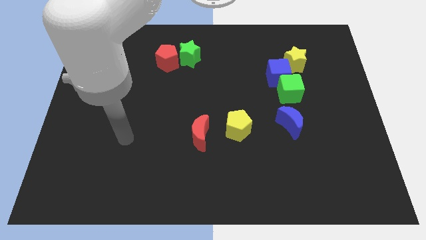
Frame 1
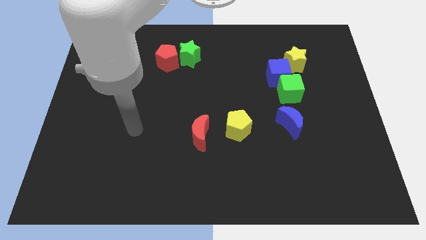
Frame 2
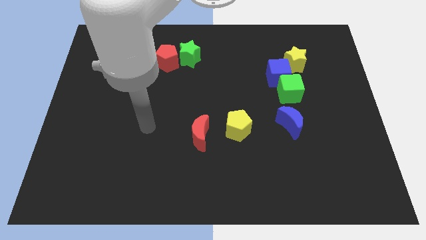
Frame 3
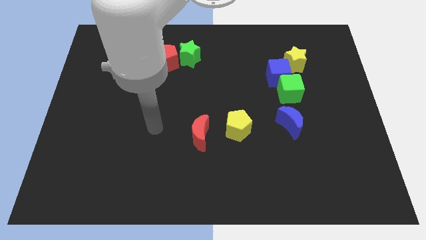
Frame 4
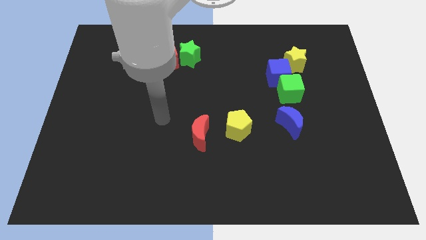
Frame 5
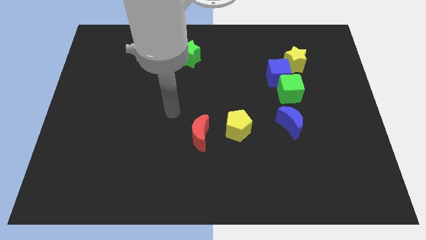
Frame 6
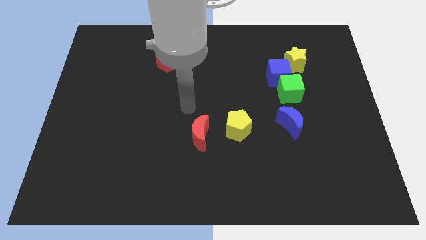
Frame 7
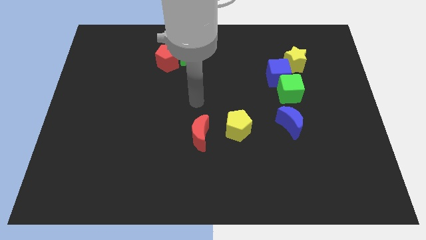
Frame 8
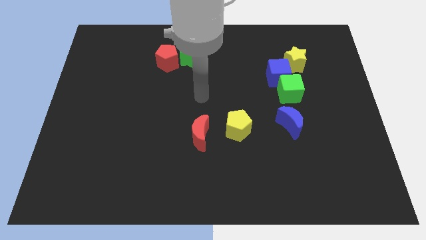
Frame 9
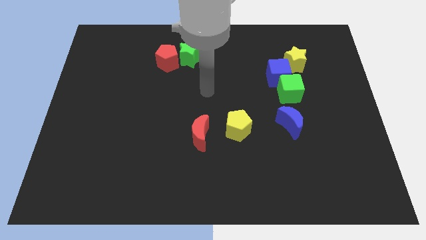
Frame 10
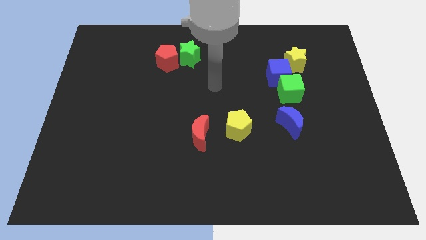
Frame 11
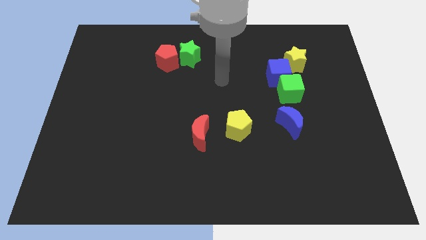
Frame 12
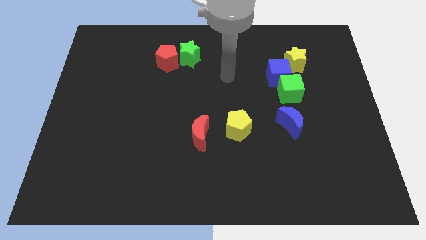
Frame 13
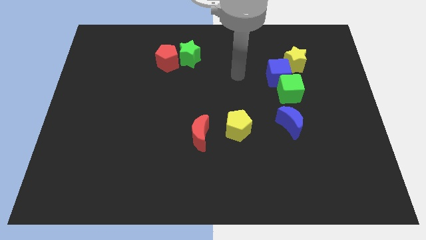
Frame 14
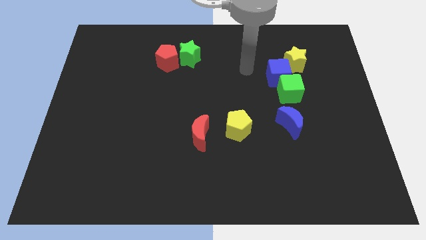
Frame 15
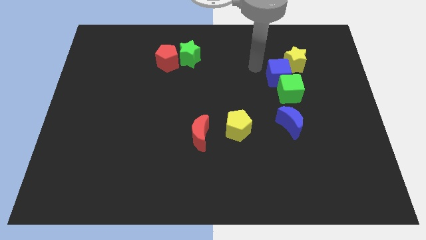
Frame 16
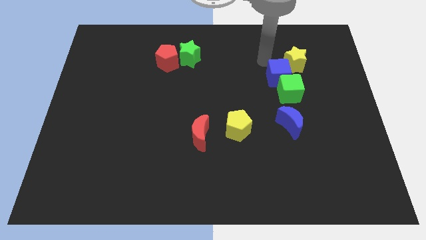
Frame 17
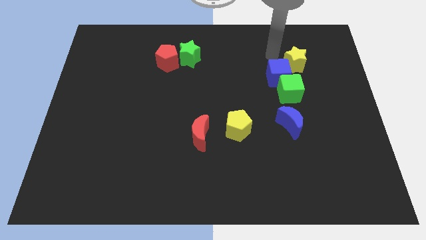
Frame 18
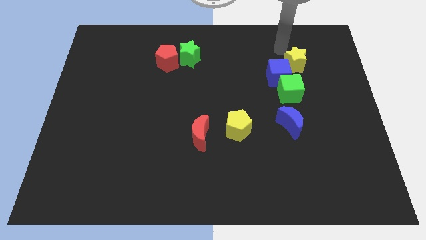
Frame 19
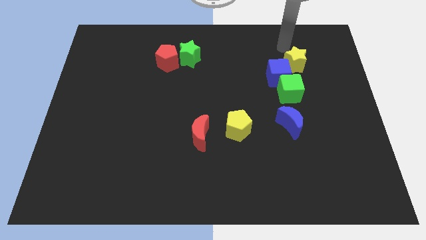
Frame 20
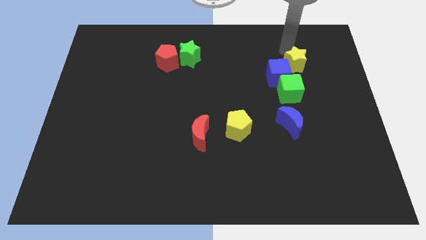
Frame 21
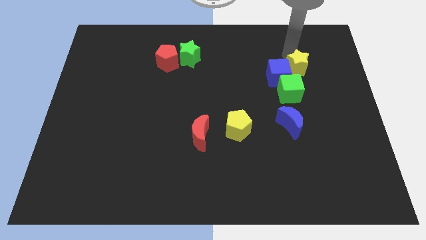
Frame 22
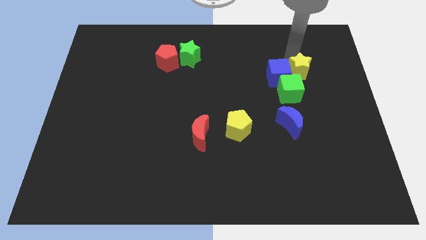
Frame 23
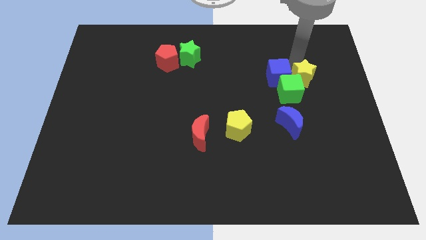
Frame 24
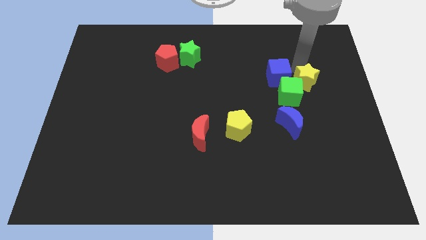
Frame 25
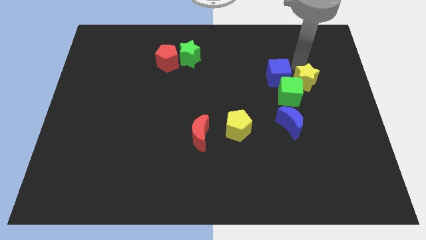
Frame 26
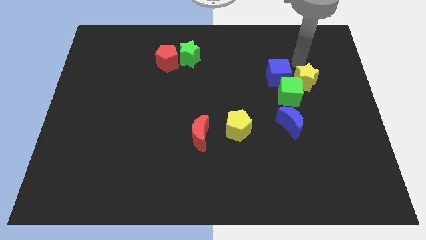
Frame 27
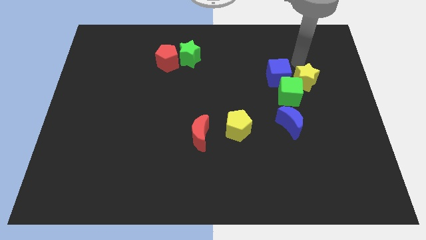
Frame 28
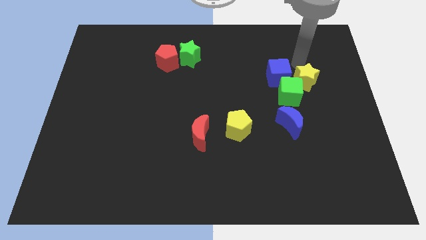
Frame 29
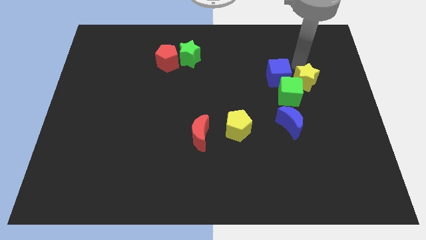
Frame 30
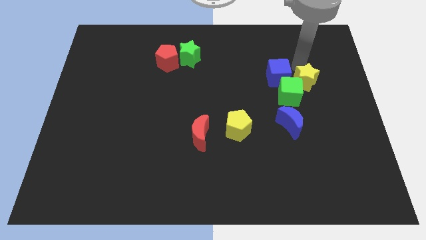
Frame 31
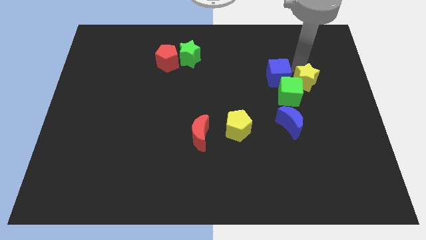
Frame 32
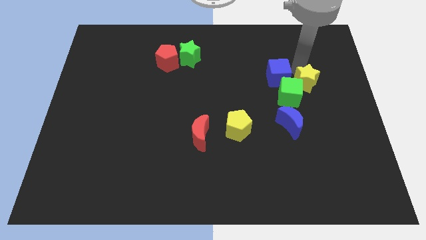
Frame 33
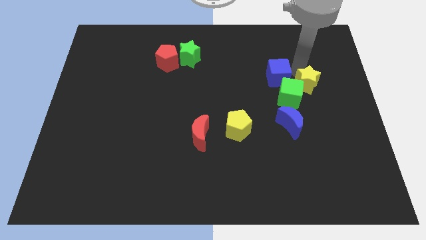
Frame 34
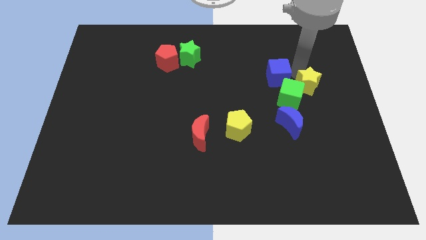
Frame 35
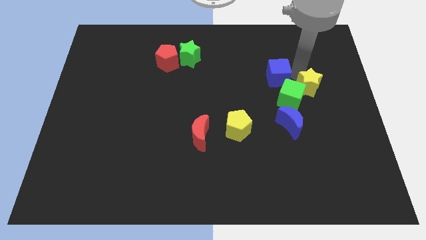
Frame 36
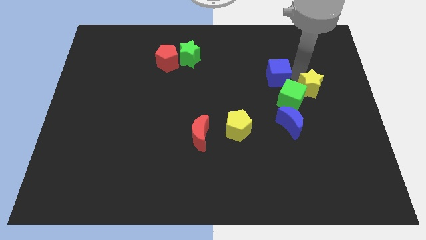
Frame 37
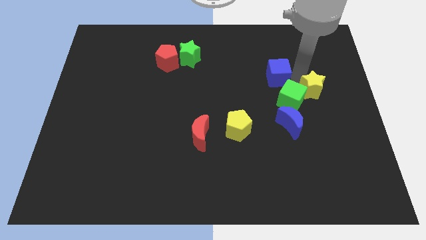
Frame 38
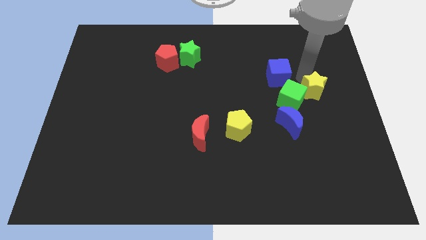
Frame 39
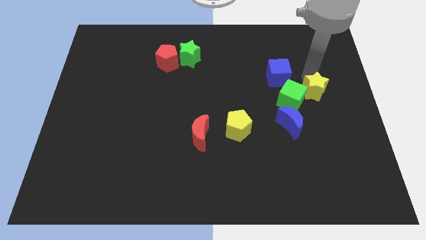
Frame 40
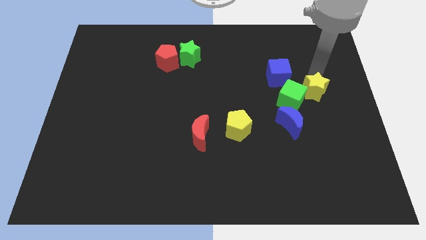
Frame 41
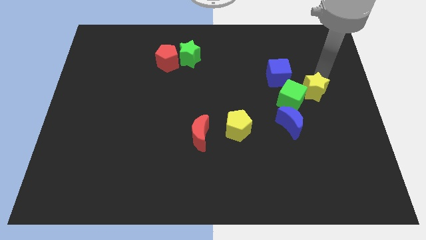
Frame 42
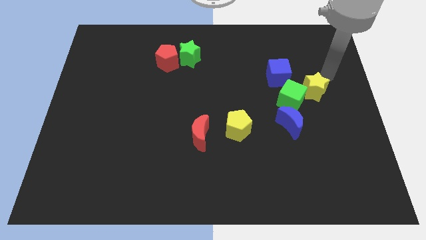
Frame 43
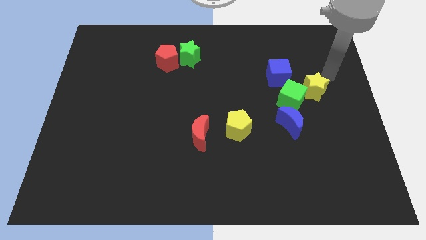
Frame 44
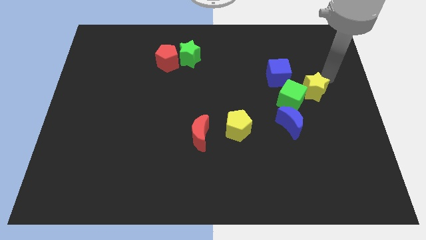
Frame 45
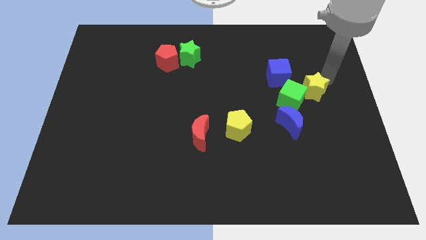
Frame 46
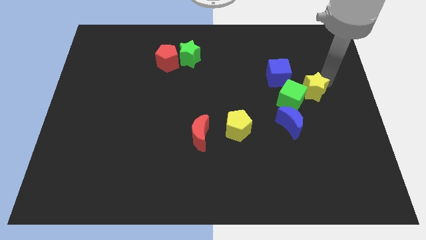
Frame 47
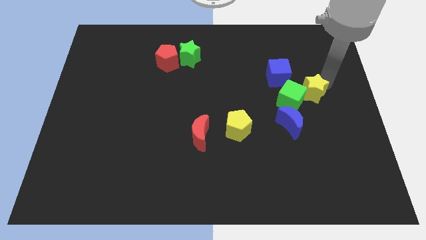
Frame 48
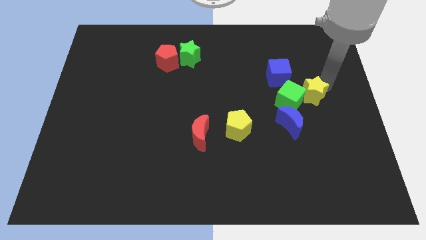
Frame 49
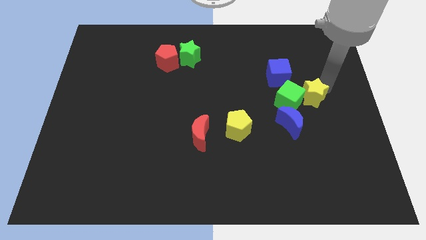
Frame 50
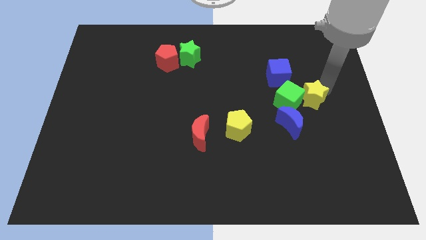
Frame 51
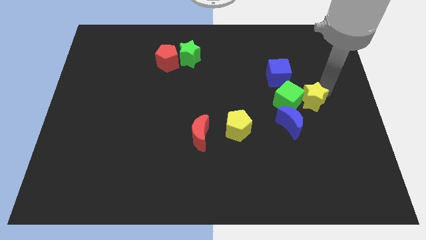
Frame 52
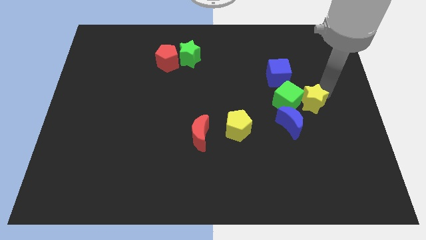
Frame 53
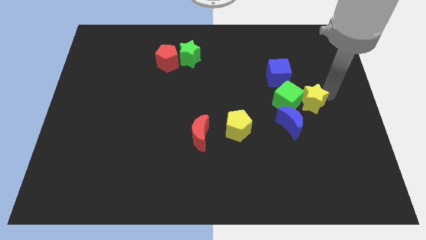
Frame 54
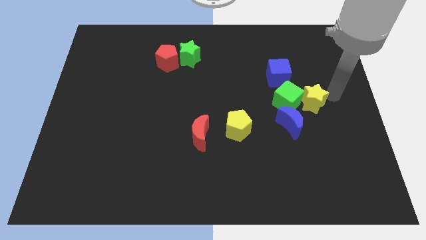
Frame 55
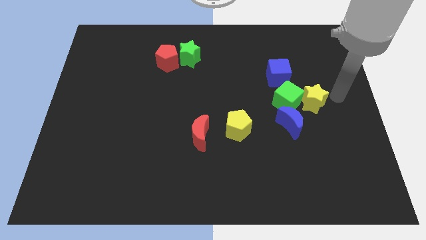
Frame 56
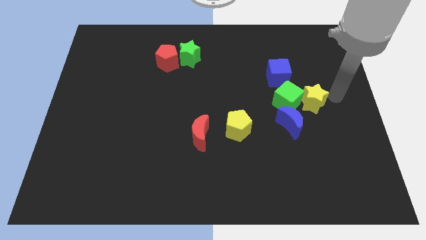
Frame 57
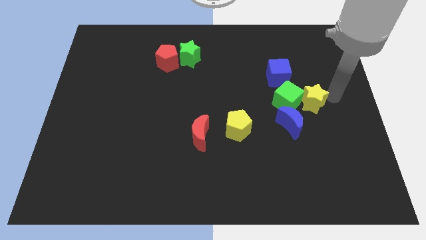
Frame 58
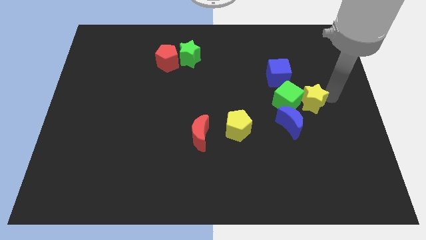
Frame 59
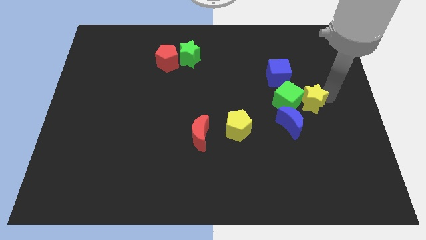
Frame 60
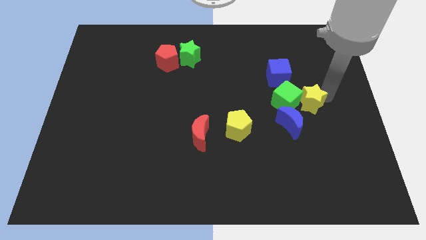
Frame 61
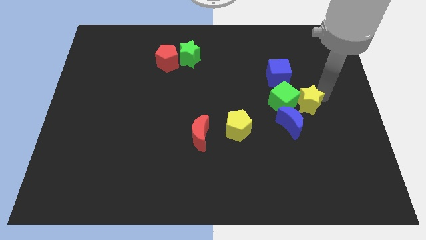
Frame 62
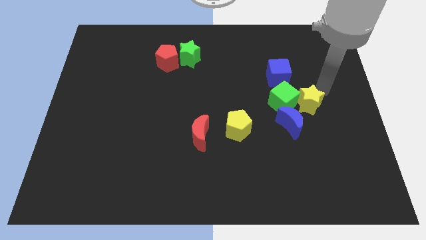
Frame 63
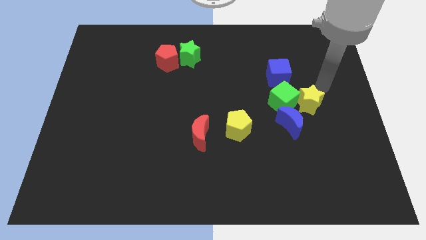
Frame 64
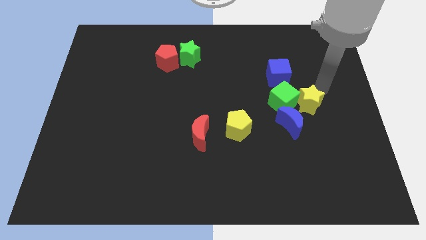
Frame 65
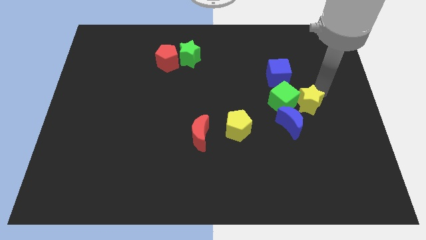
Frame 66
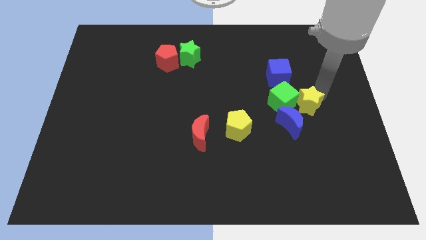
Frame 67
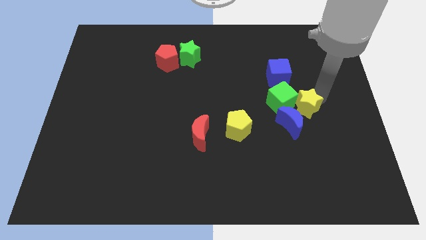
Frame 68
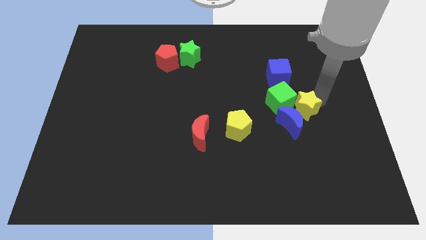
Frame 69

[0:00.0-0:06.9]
put the yellow star next to the blue moon
